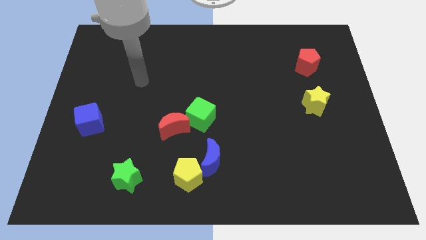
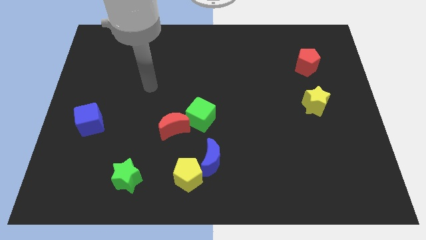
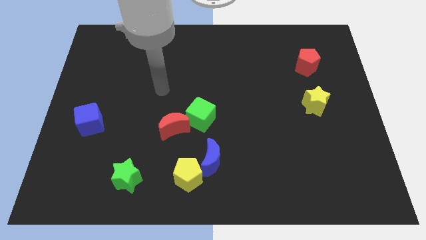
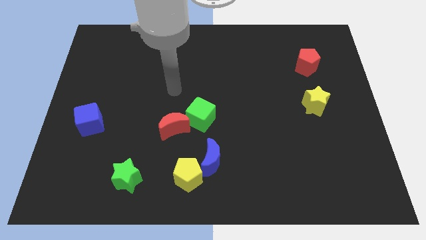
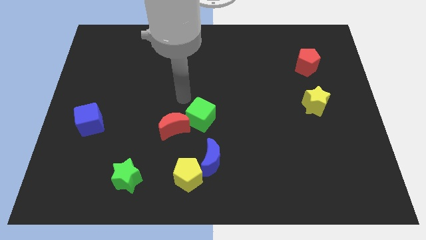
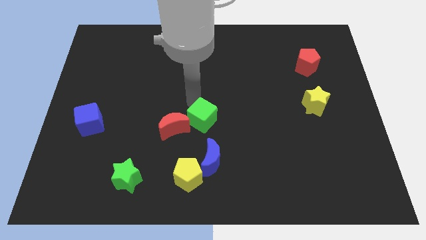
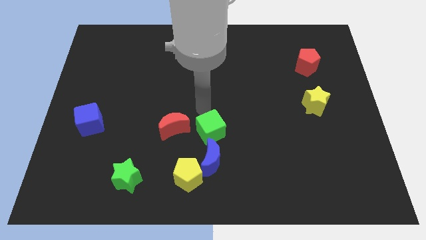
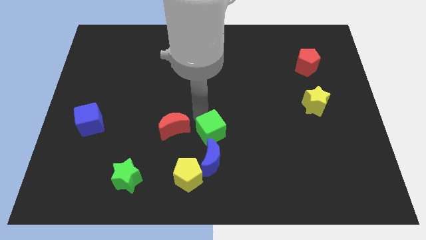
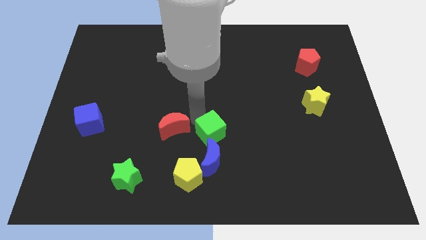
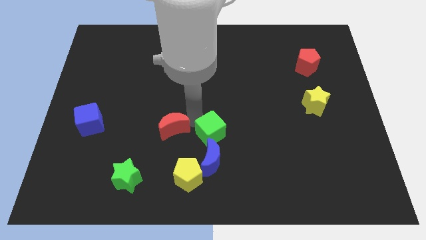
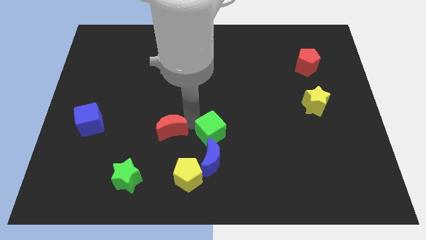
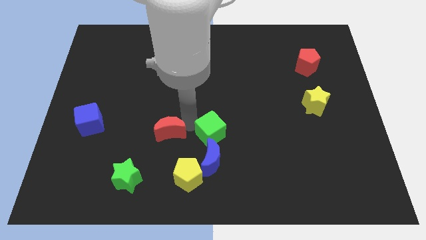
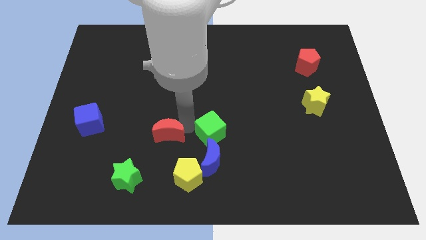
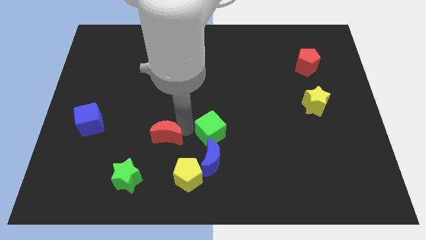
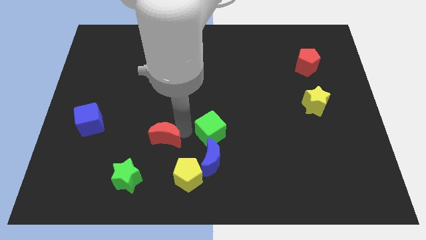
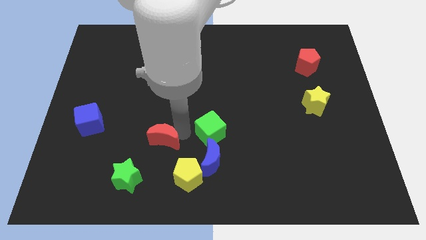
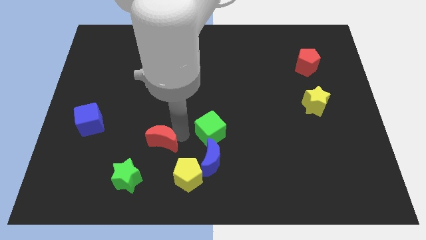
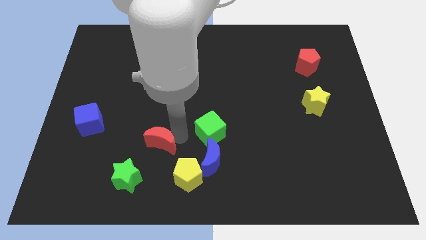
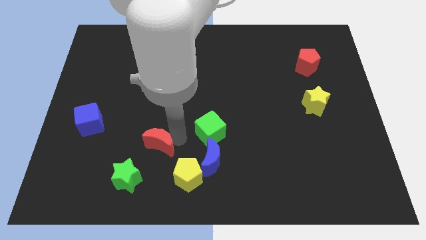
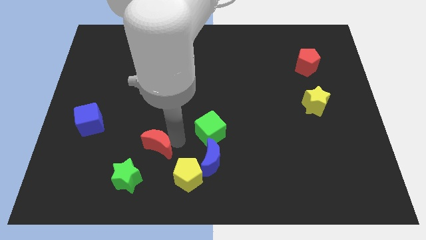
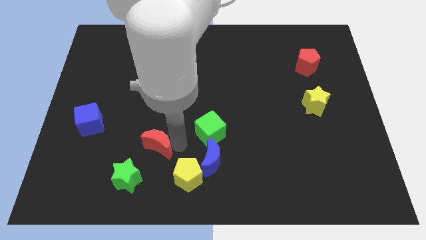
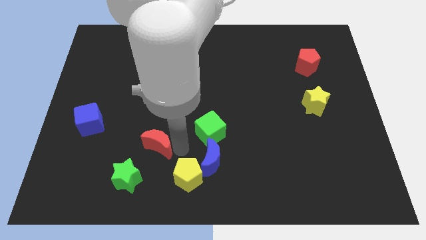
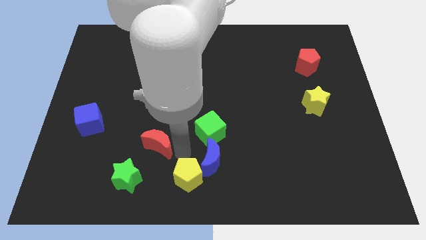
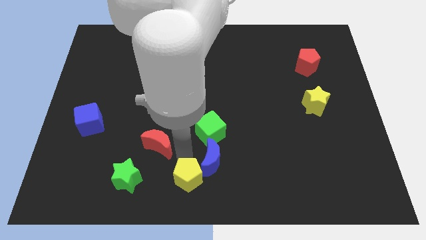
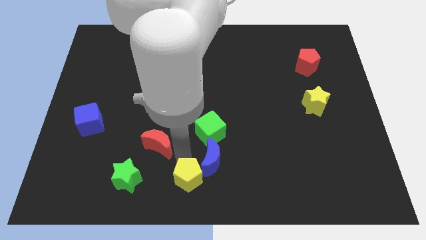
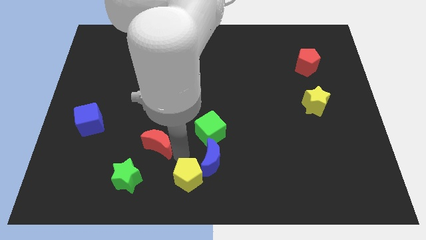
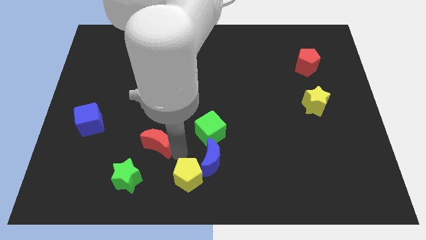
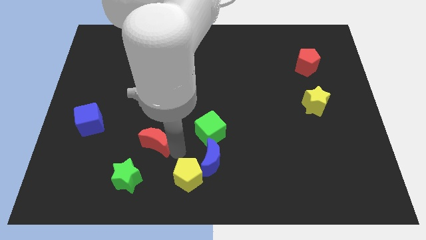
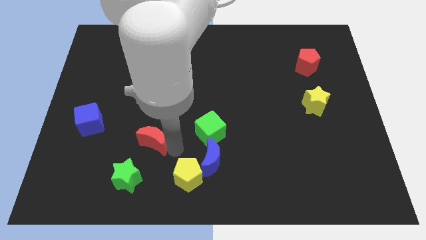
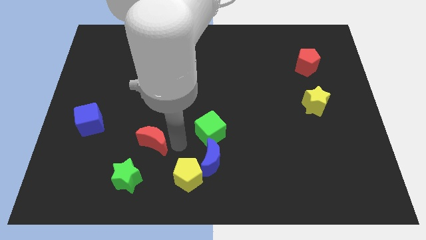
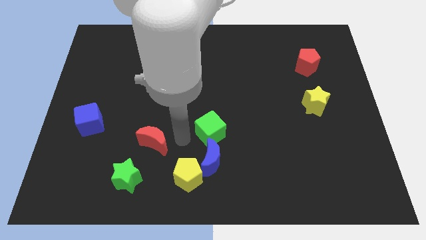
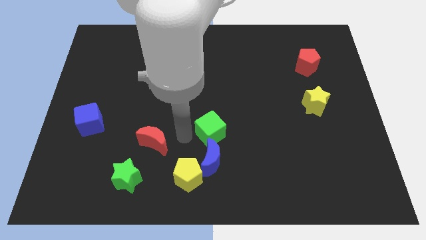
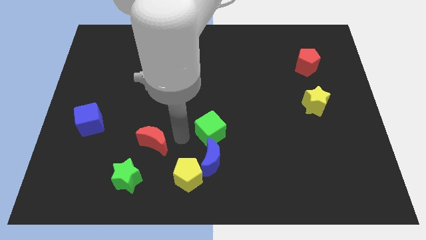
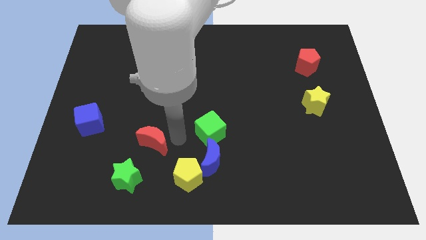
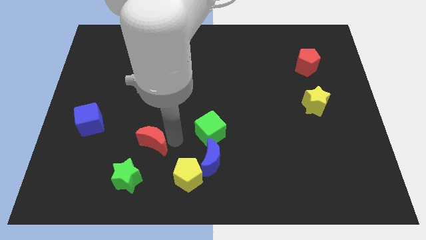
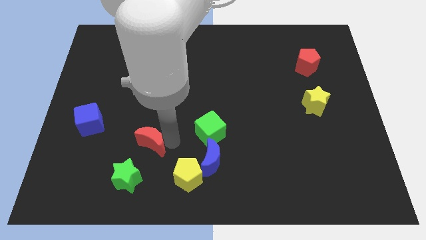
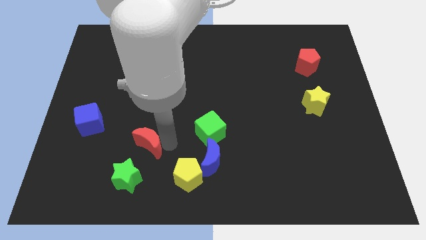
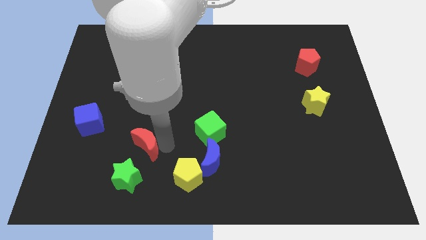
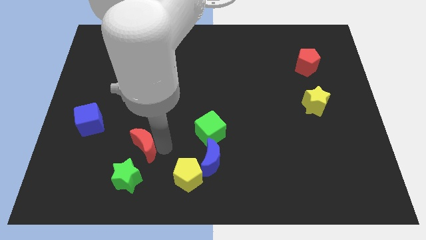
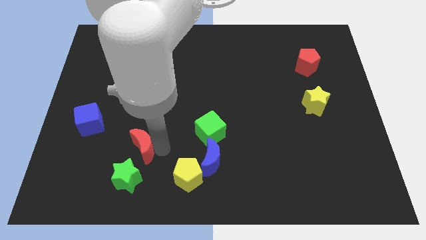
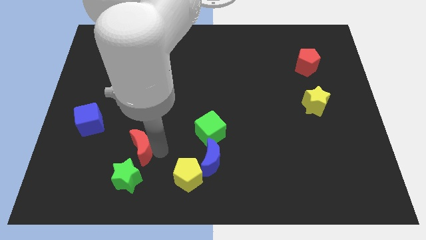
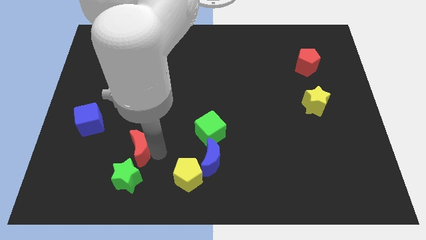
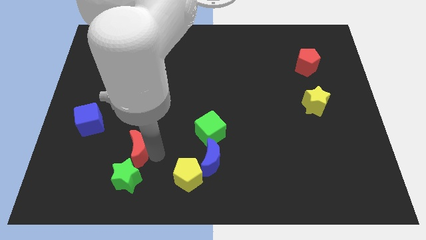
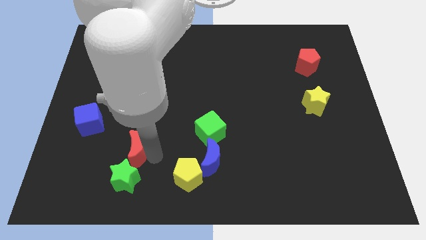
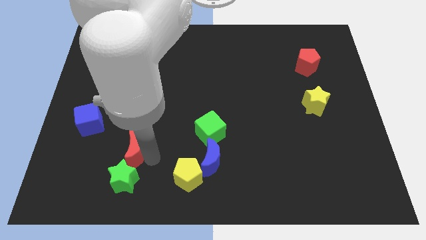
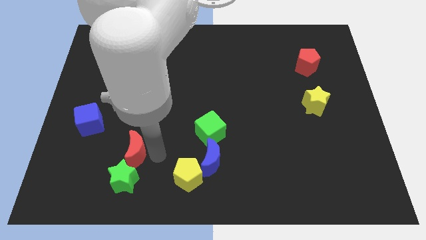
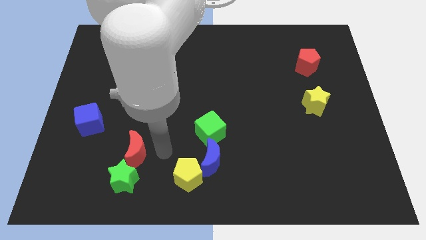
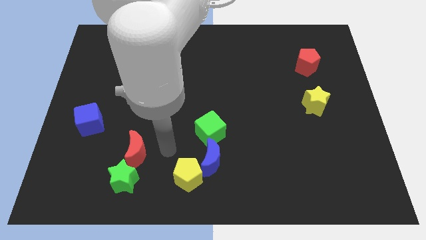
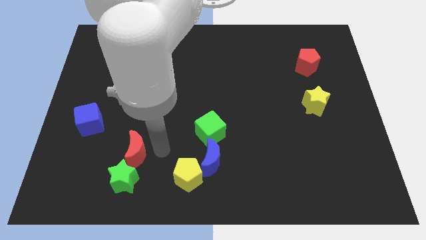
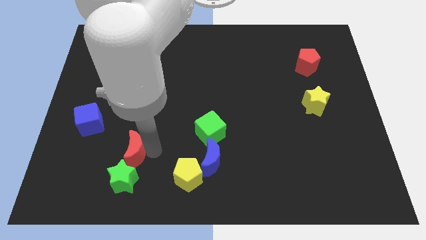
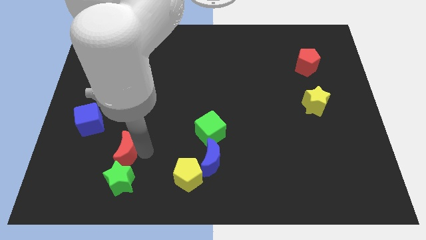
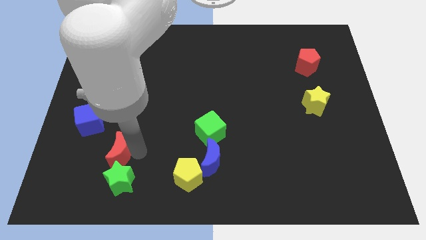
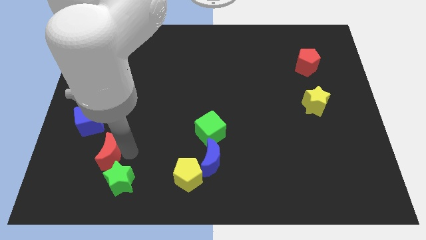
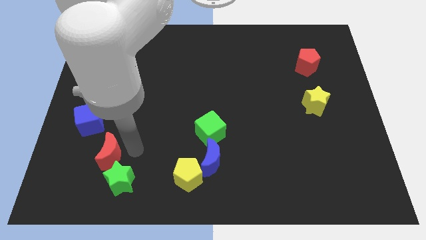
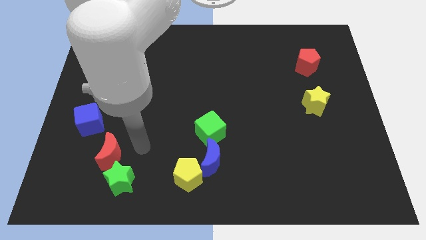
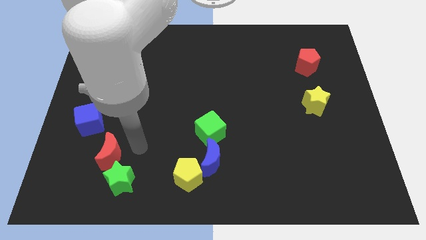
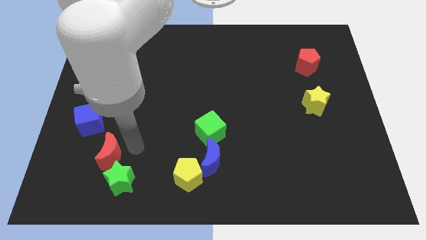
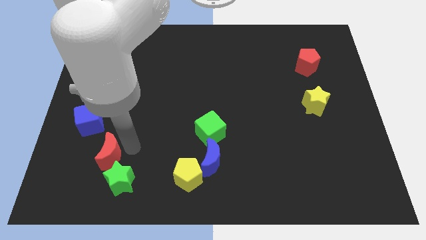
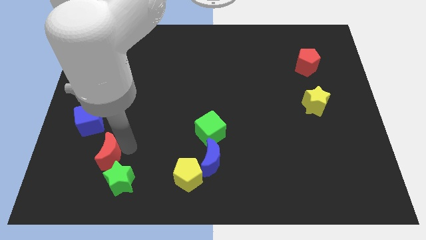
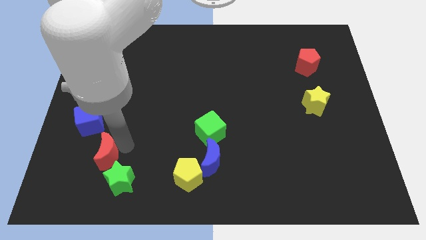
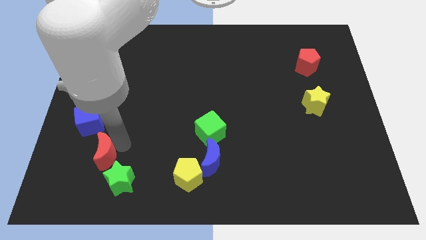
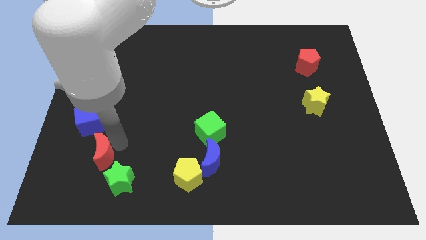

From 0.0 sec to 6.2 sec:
slide the red moon to the bottom side of the blue cube

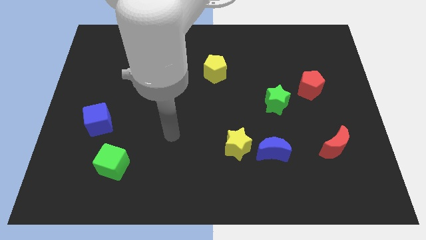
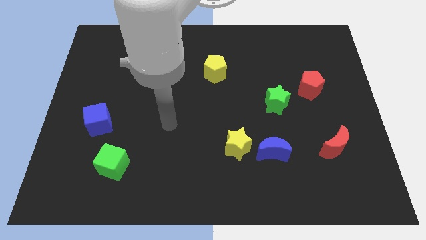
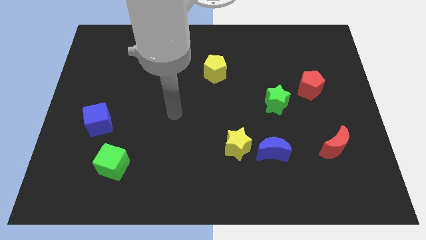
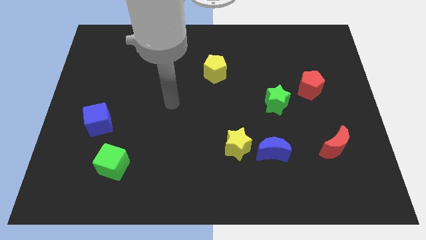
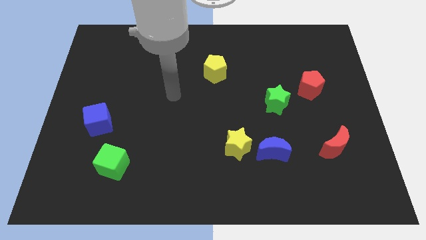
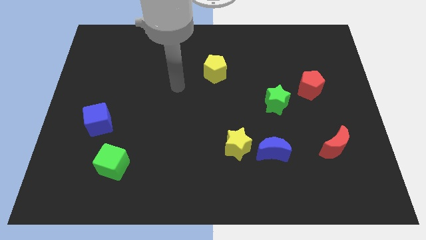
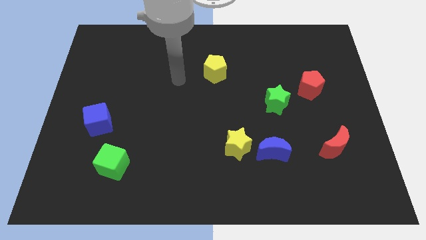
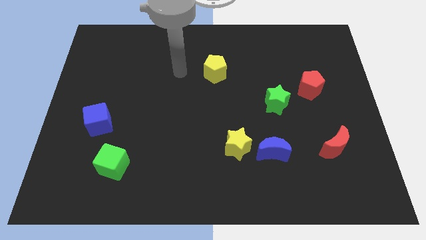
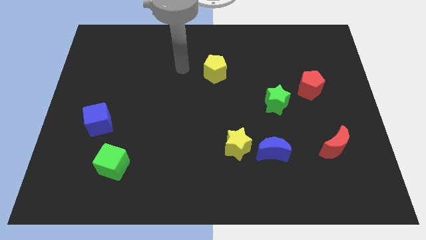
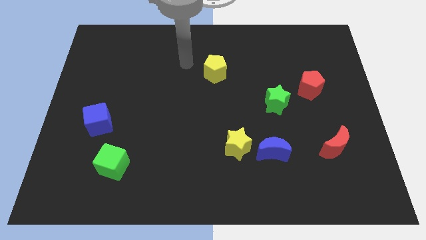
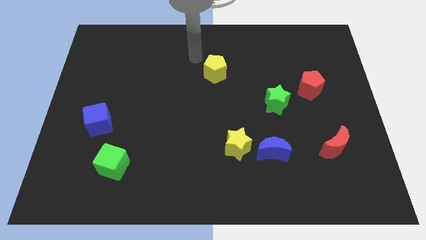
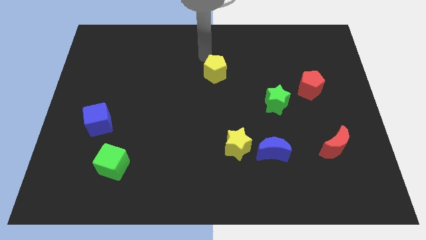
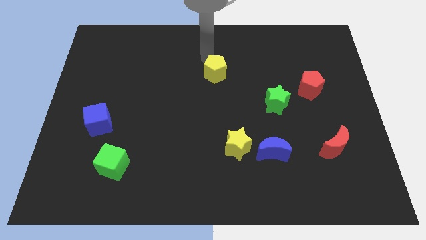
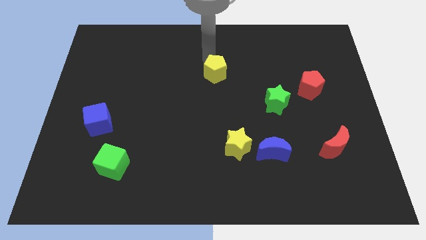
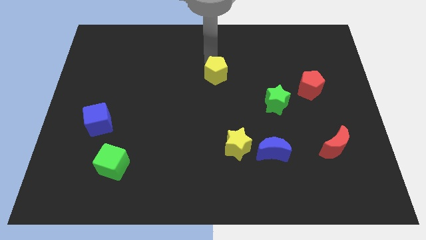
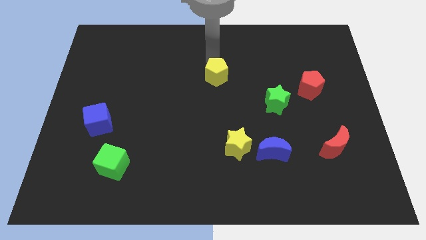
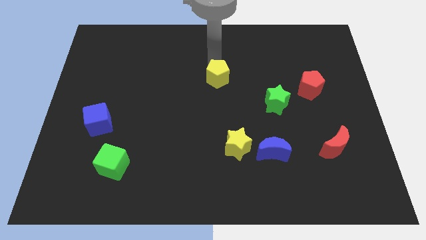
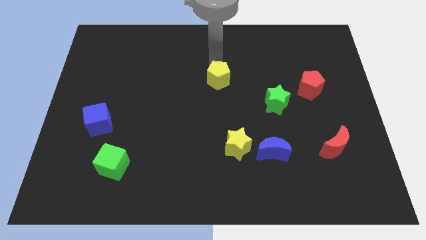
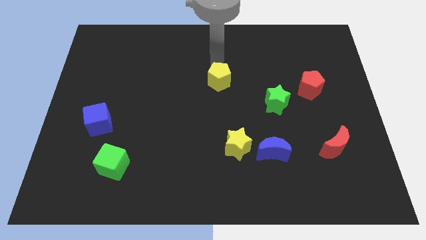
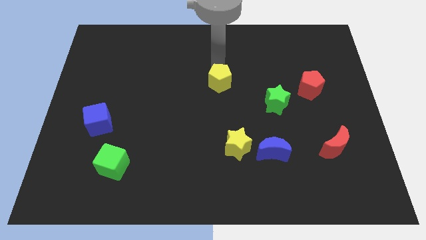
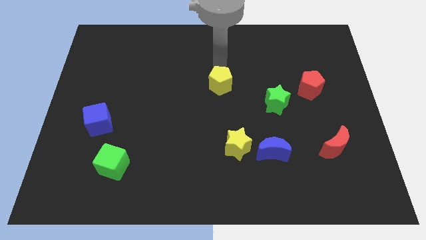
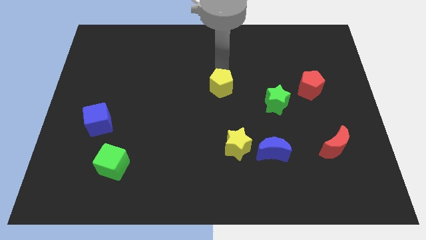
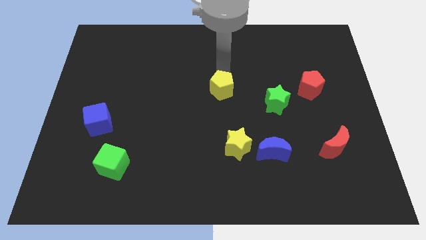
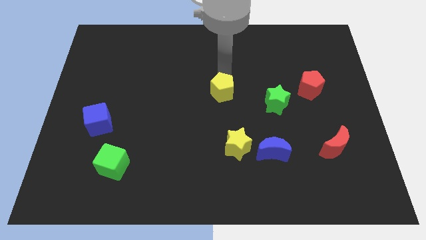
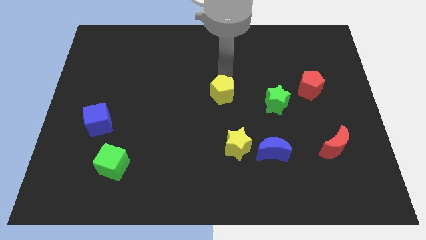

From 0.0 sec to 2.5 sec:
slide the yellow pentagon to the top side of the yellow star
